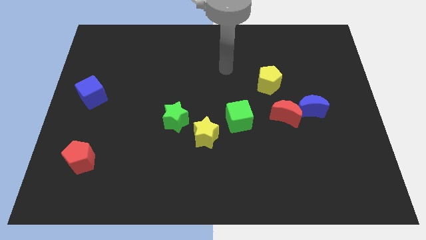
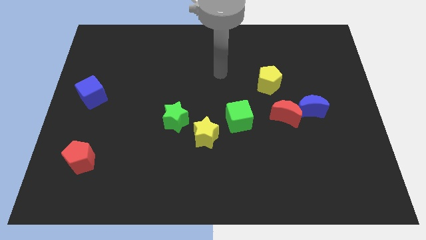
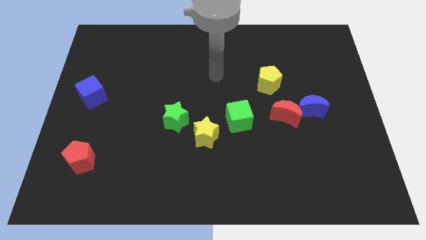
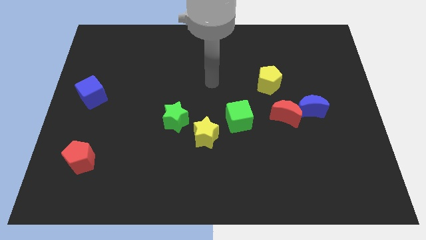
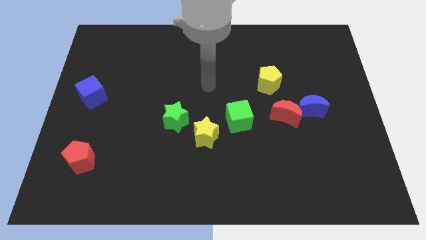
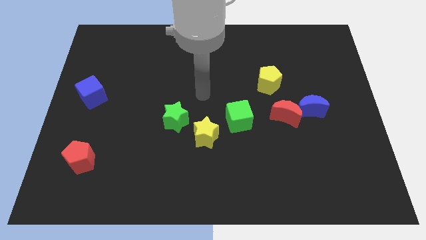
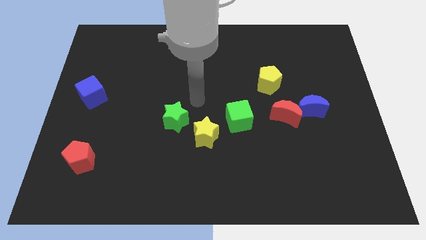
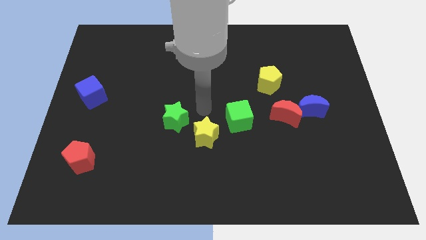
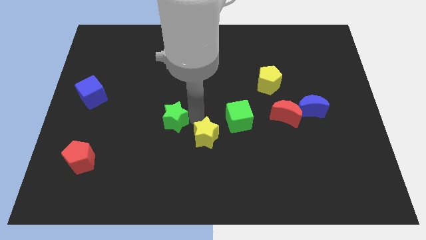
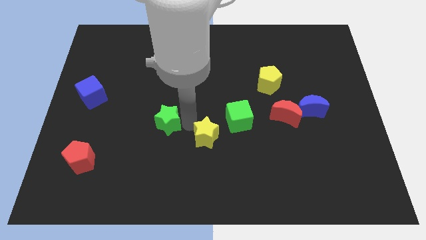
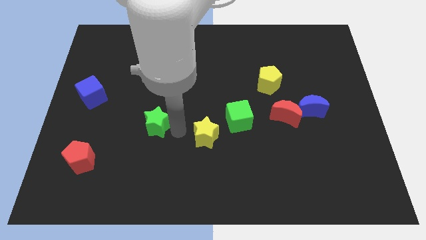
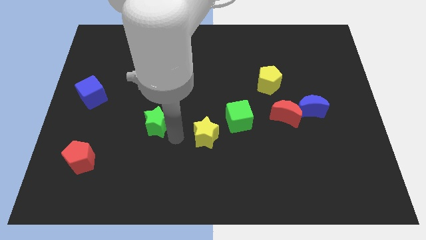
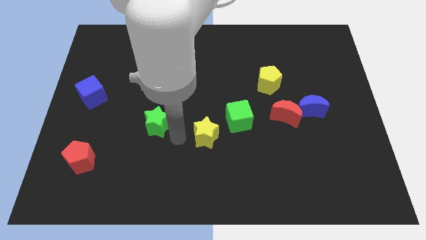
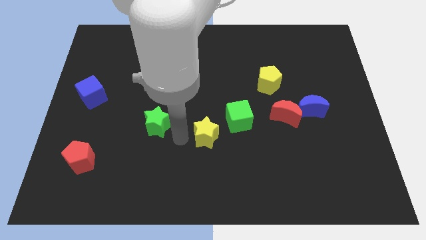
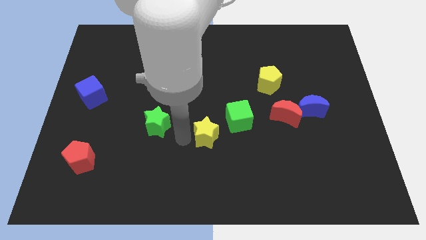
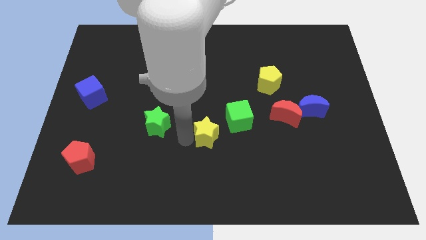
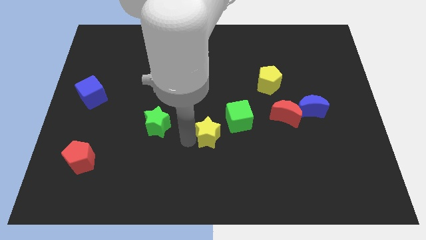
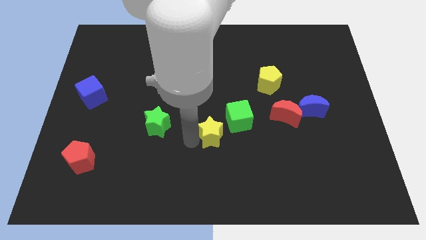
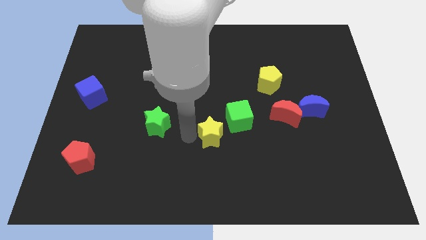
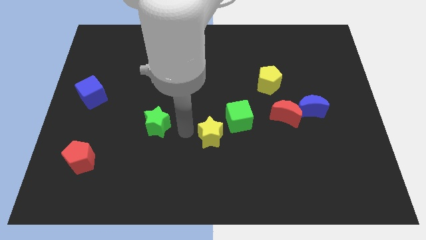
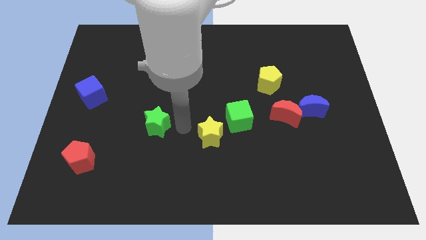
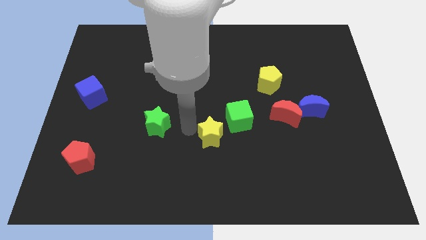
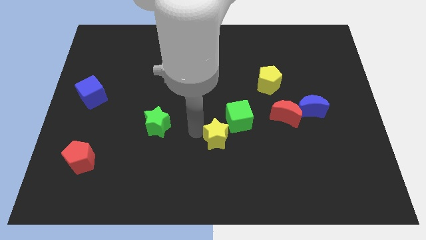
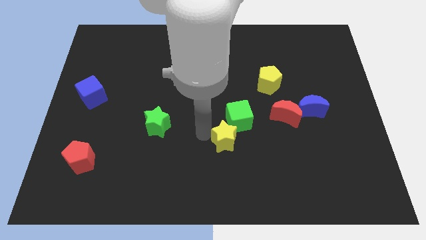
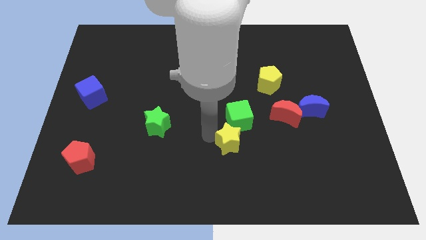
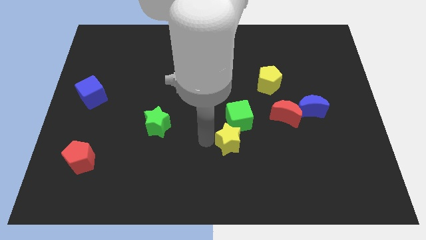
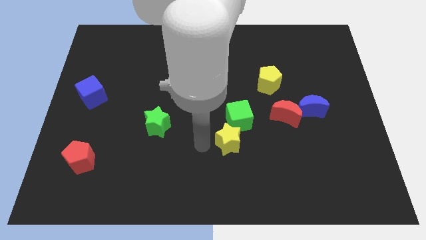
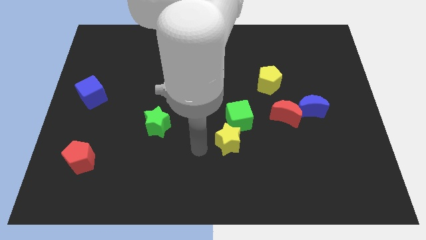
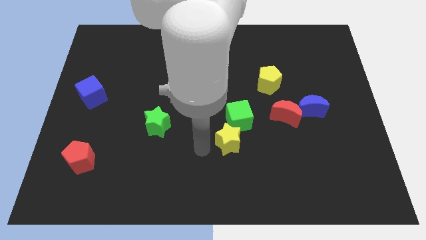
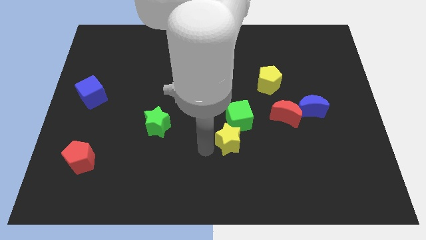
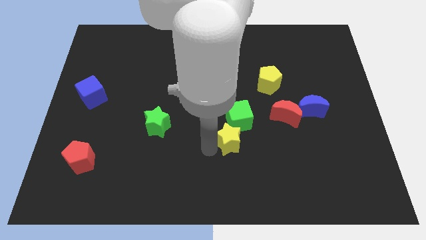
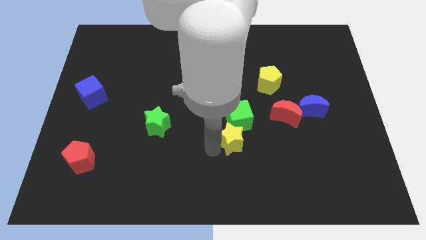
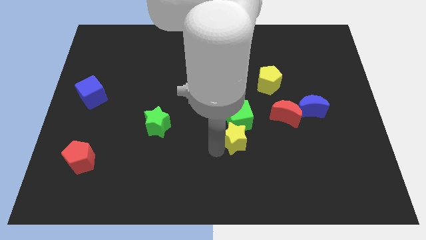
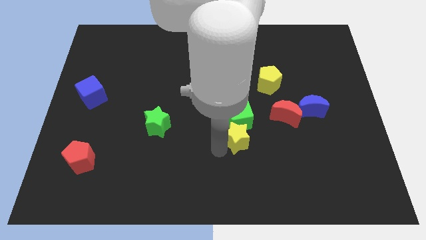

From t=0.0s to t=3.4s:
slightly push the yellow star to the right

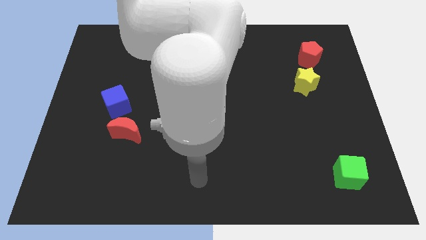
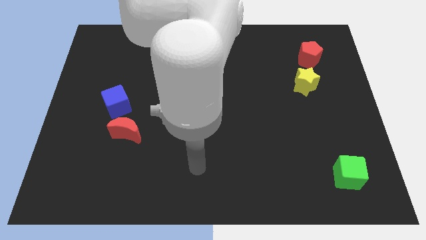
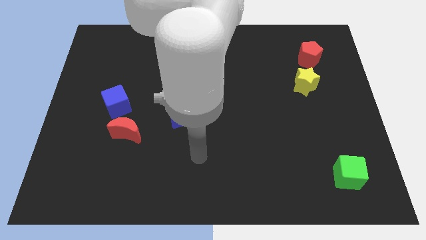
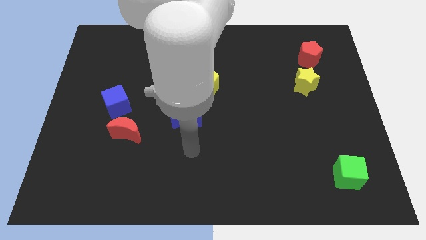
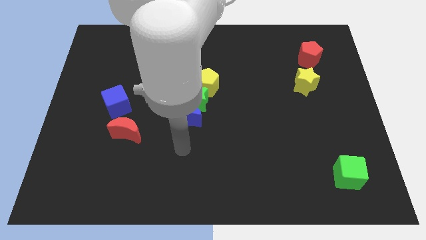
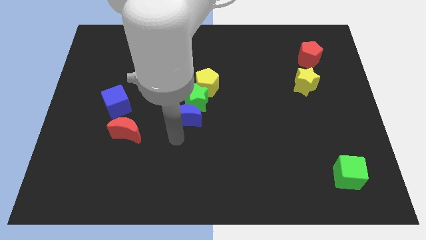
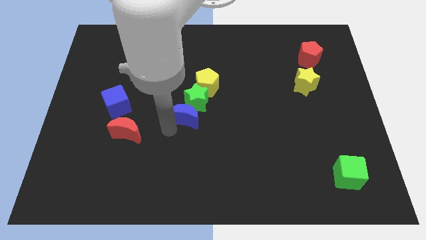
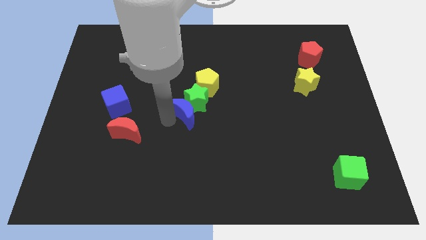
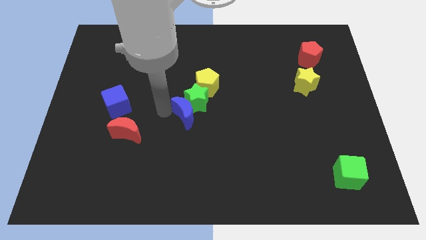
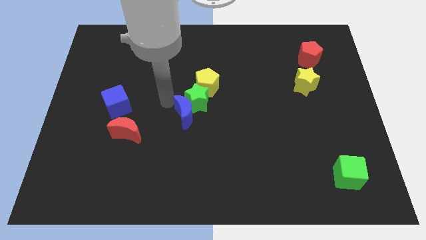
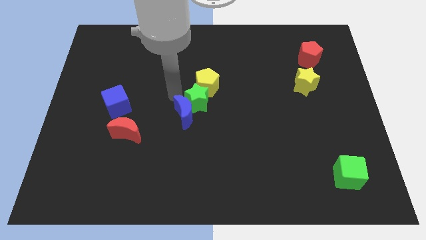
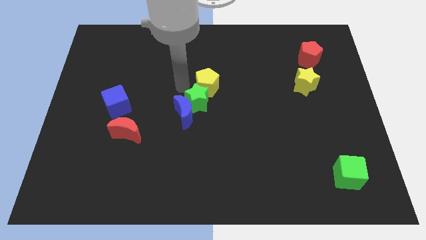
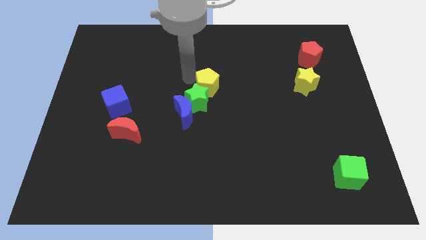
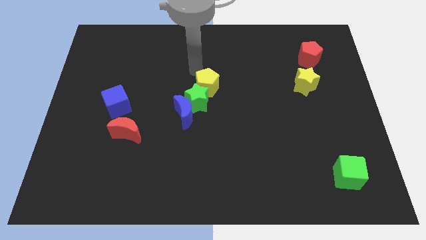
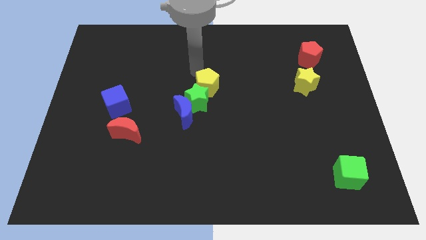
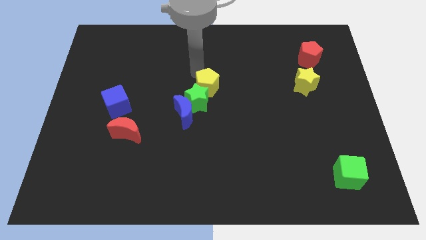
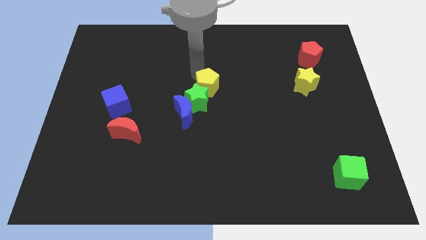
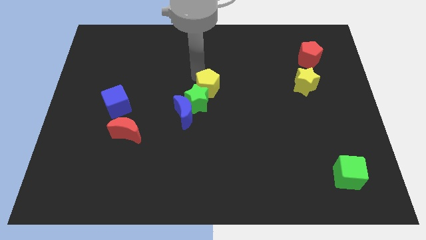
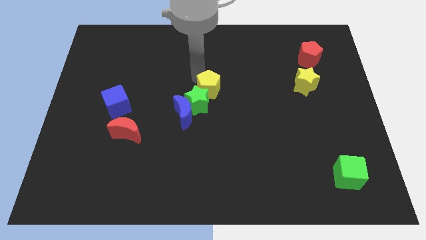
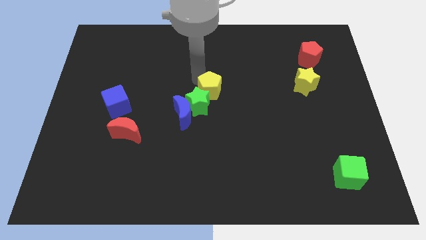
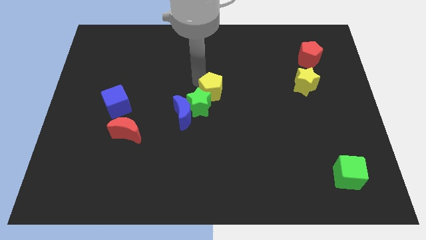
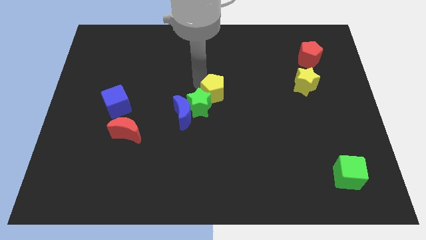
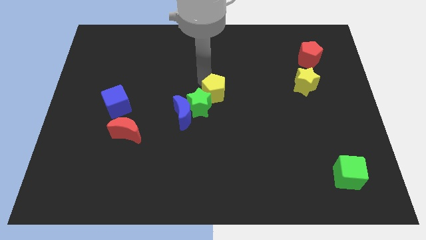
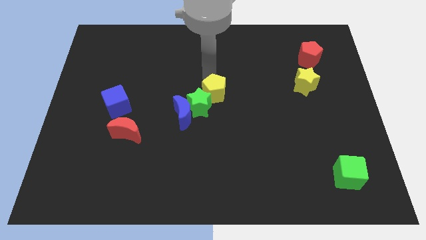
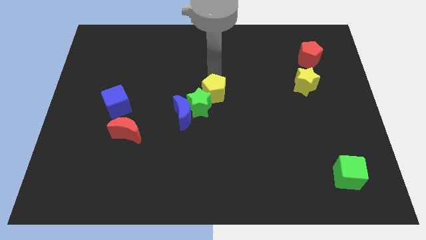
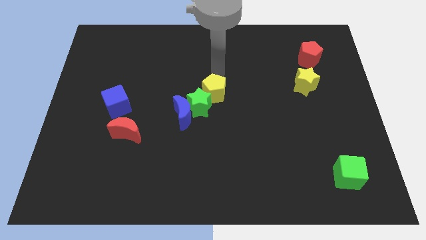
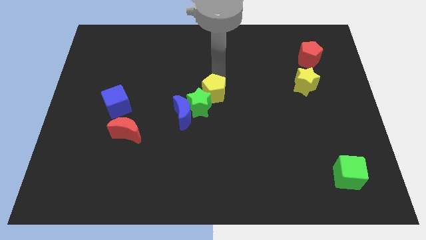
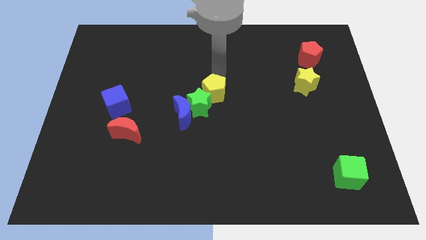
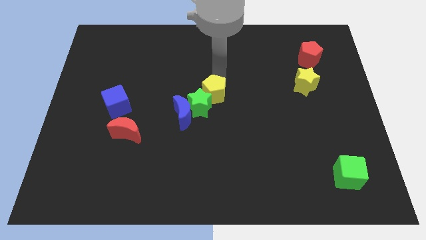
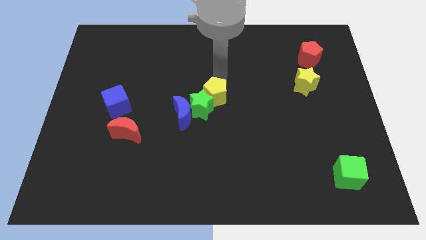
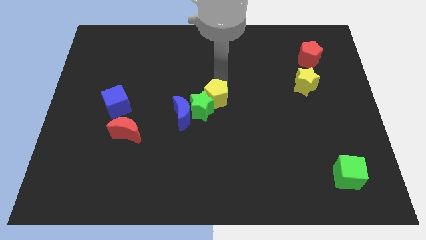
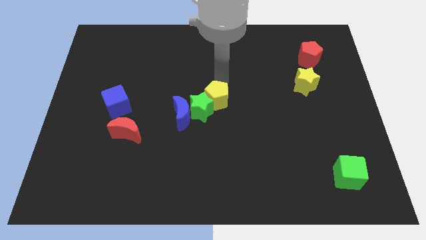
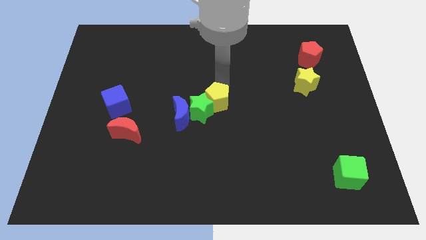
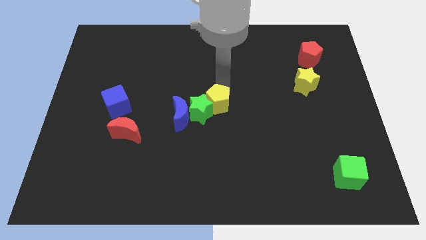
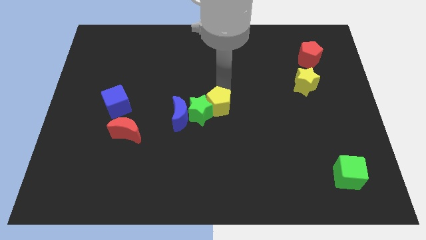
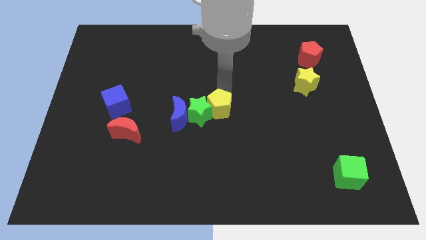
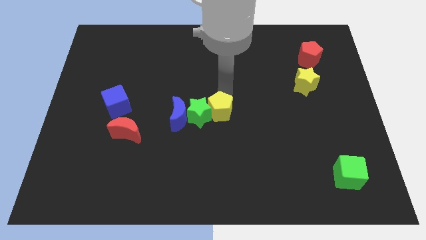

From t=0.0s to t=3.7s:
push the yellow pentagon a bit downwards

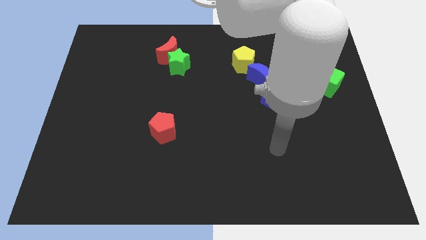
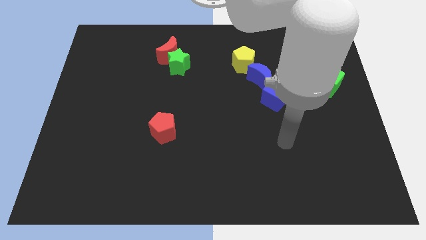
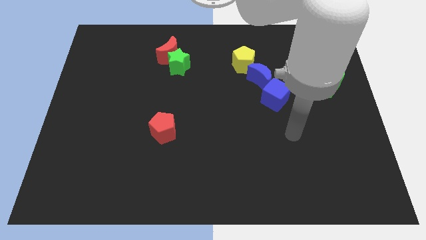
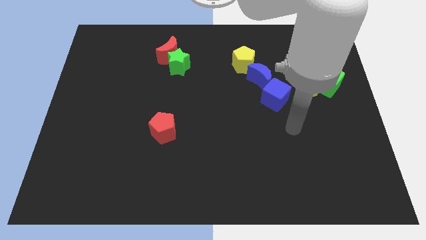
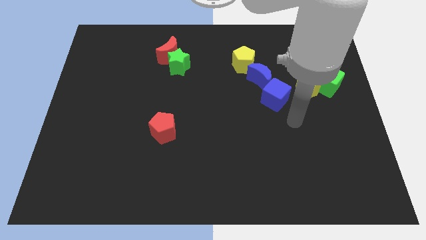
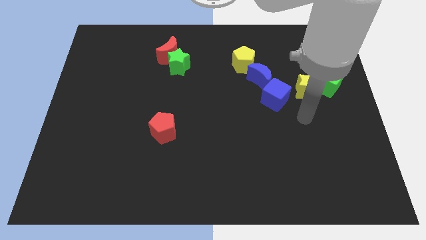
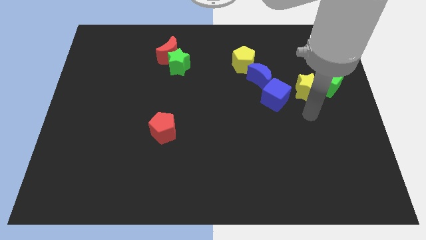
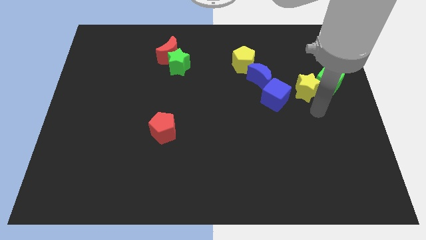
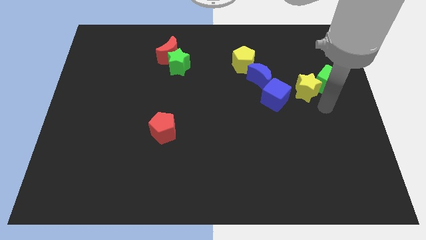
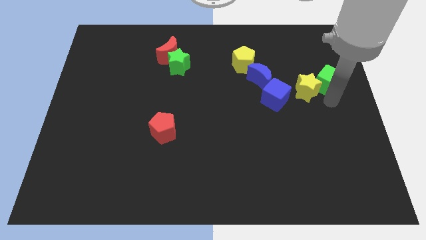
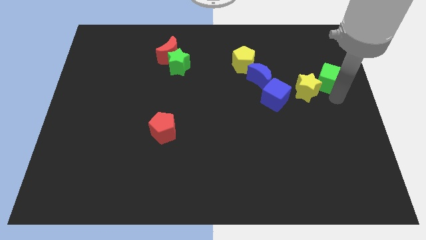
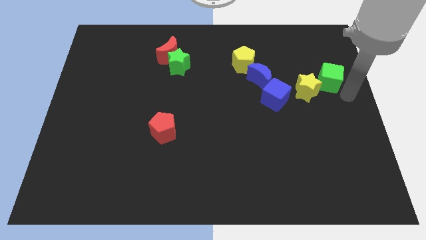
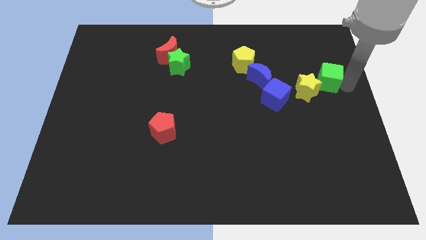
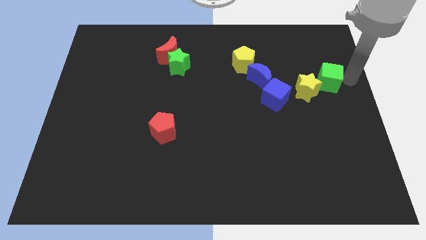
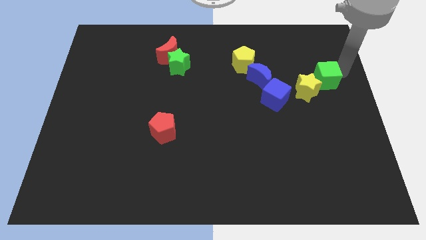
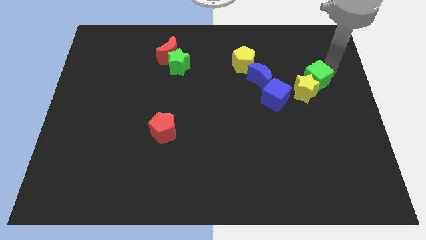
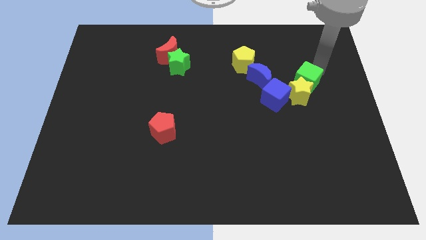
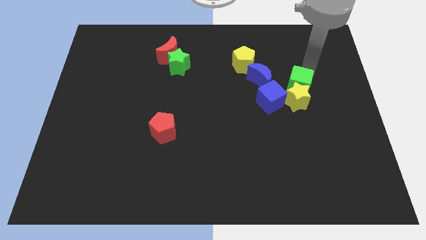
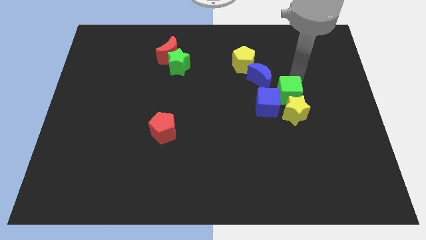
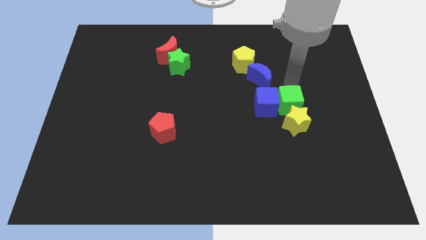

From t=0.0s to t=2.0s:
move the yellow star a little bit down
